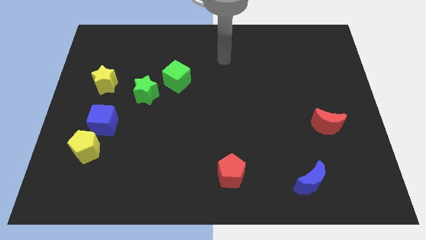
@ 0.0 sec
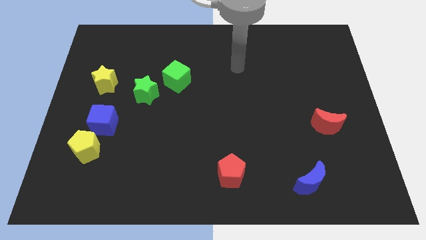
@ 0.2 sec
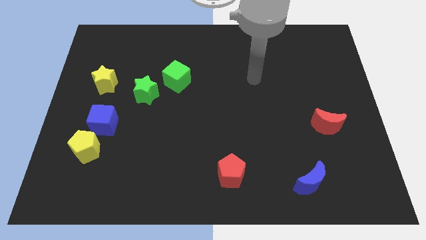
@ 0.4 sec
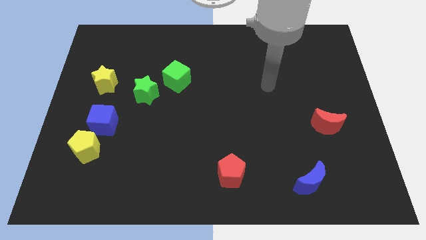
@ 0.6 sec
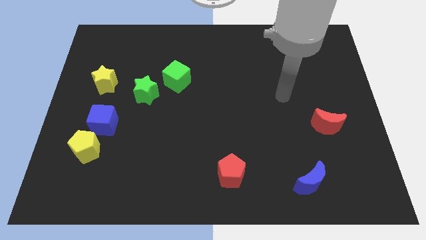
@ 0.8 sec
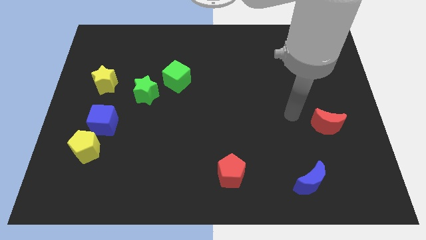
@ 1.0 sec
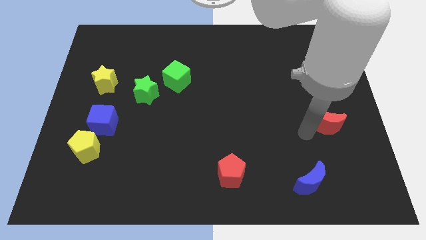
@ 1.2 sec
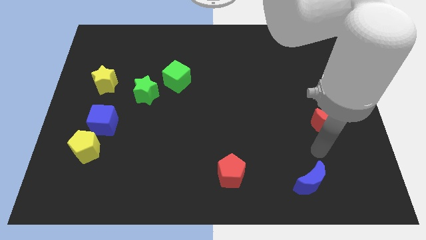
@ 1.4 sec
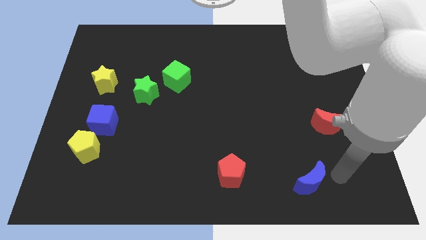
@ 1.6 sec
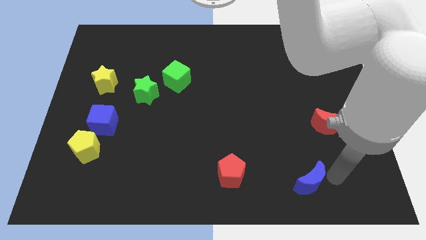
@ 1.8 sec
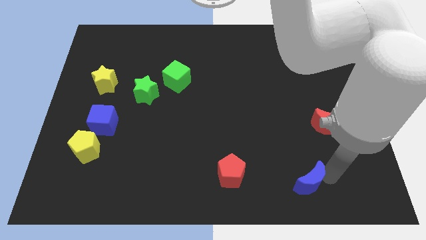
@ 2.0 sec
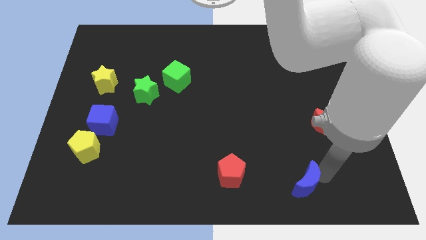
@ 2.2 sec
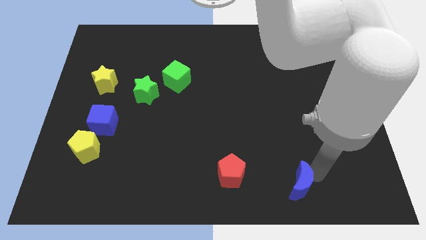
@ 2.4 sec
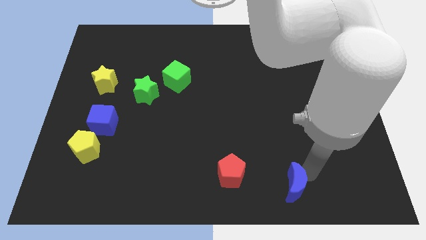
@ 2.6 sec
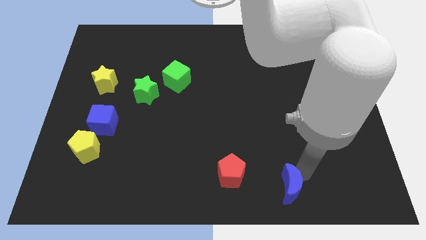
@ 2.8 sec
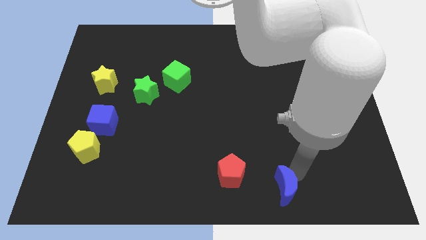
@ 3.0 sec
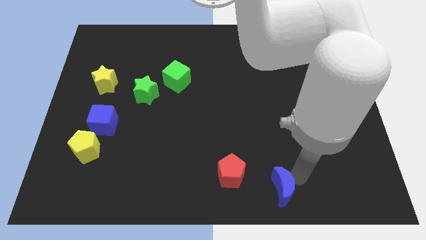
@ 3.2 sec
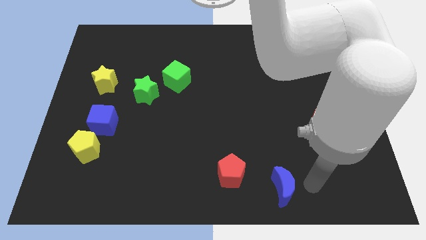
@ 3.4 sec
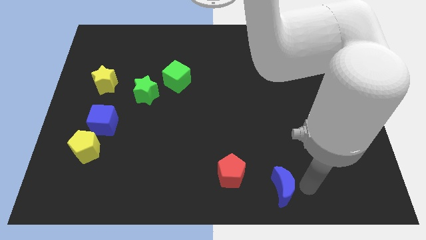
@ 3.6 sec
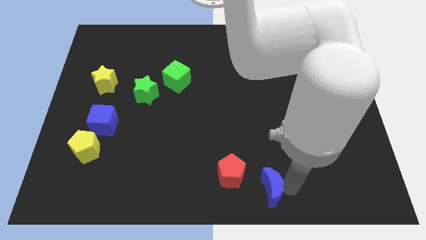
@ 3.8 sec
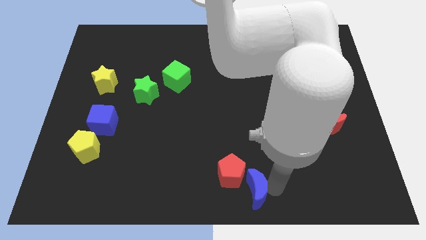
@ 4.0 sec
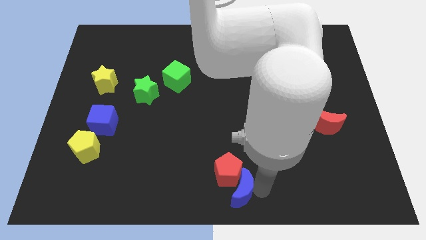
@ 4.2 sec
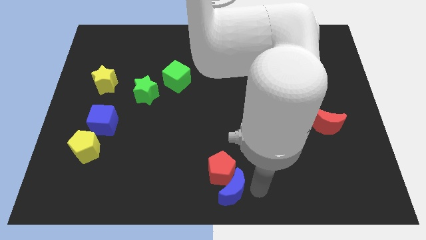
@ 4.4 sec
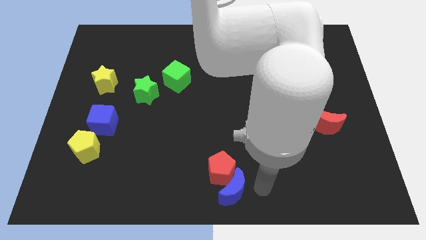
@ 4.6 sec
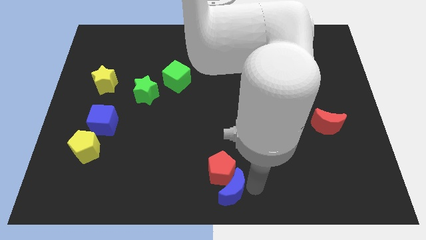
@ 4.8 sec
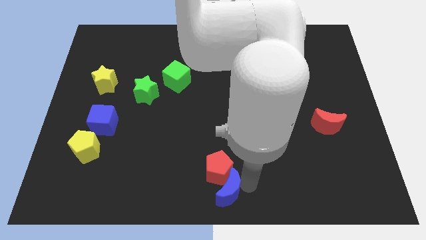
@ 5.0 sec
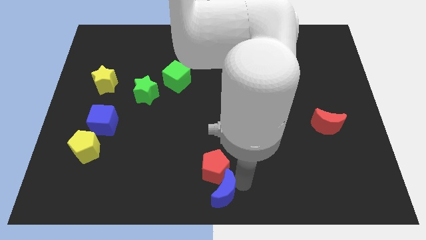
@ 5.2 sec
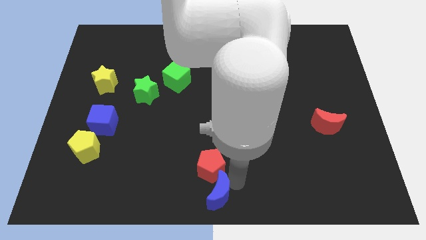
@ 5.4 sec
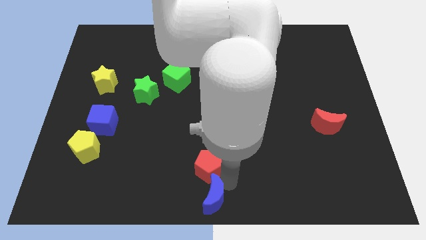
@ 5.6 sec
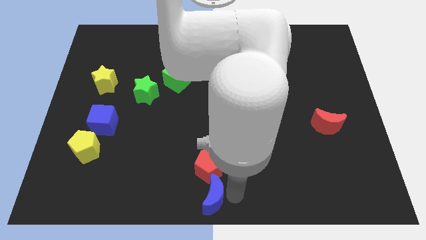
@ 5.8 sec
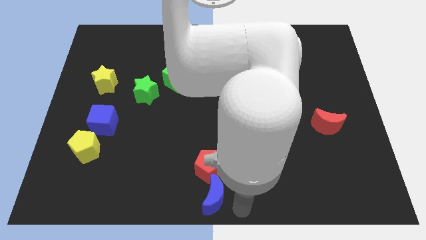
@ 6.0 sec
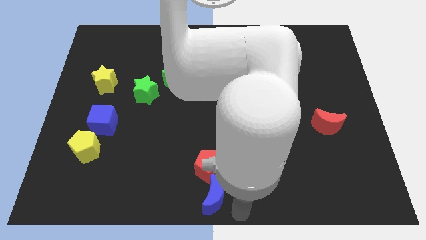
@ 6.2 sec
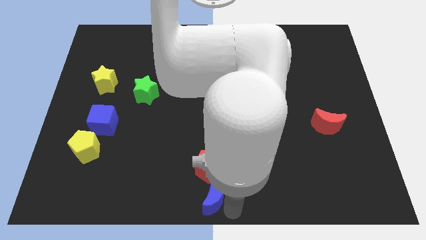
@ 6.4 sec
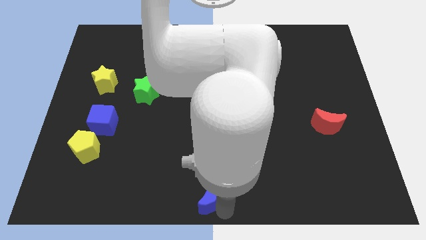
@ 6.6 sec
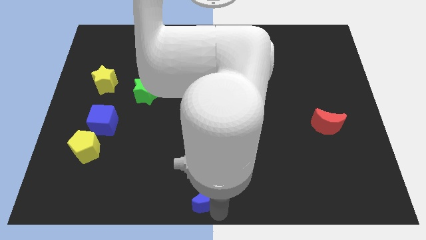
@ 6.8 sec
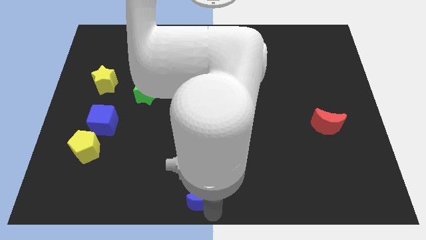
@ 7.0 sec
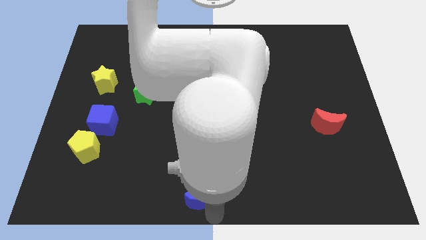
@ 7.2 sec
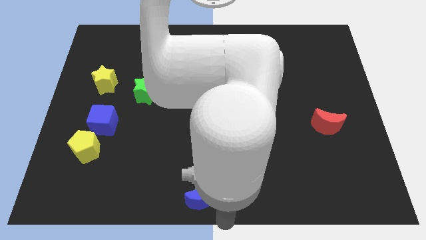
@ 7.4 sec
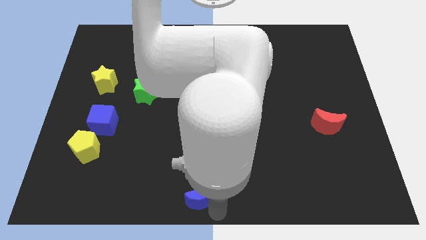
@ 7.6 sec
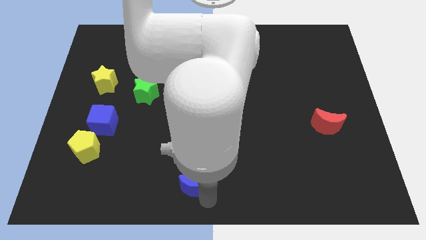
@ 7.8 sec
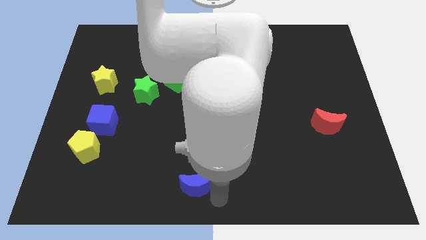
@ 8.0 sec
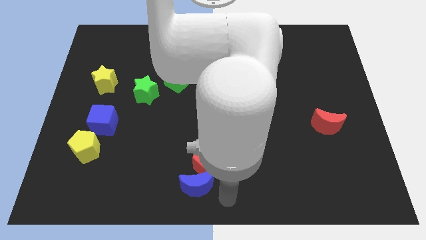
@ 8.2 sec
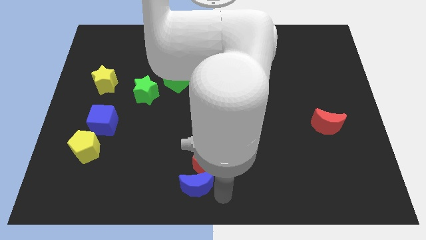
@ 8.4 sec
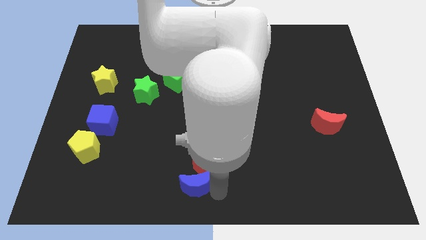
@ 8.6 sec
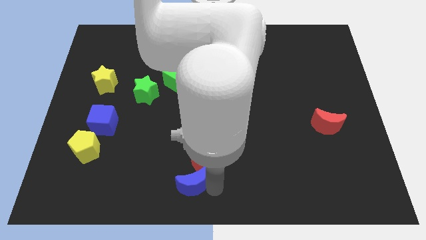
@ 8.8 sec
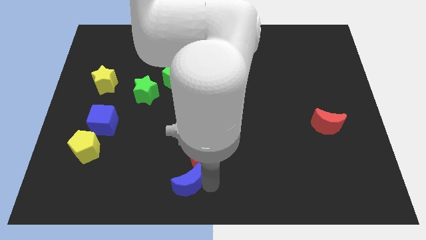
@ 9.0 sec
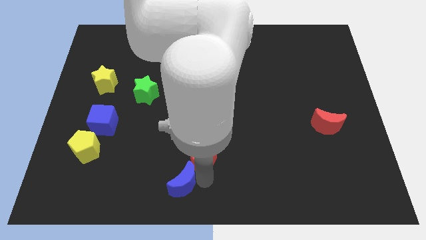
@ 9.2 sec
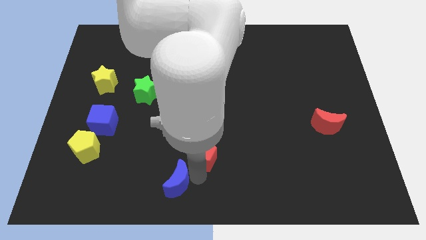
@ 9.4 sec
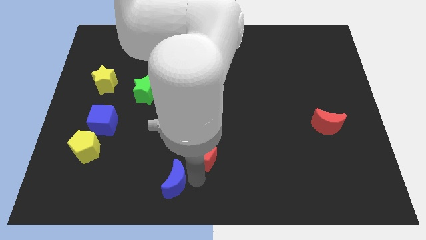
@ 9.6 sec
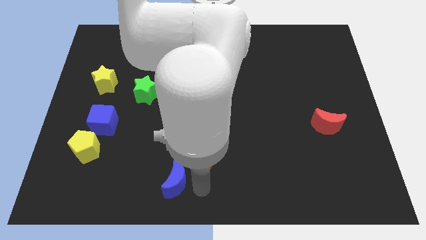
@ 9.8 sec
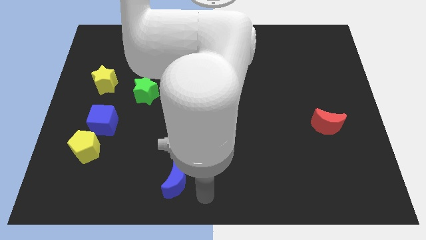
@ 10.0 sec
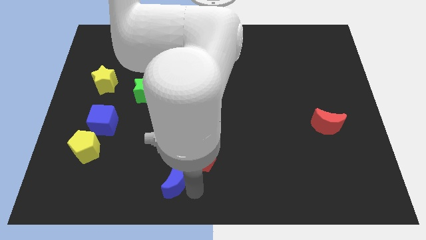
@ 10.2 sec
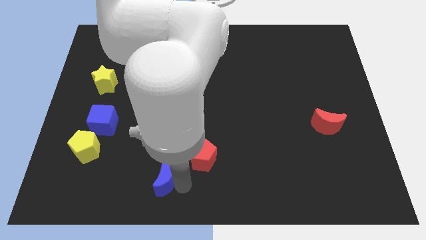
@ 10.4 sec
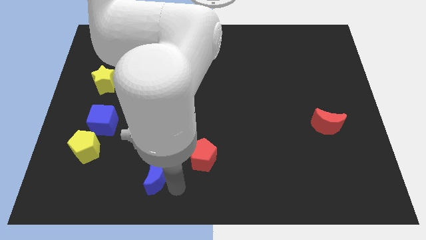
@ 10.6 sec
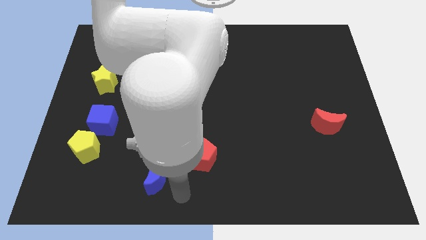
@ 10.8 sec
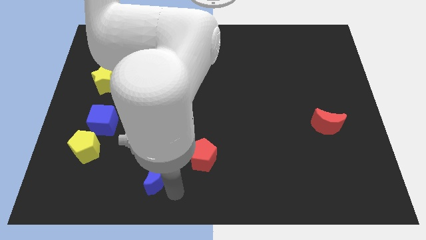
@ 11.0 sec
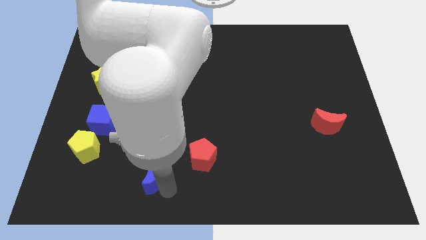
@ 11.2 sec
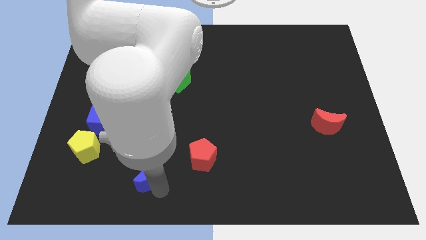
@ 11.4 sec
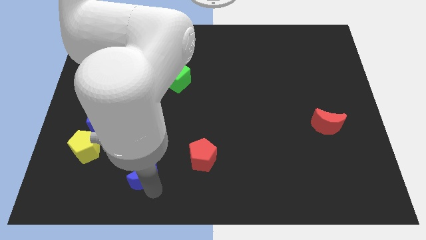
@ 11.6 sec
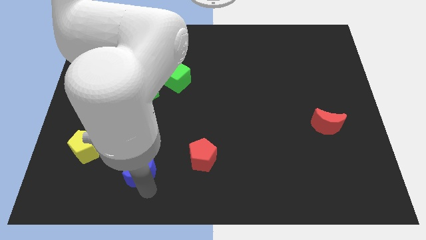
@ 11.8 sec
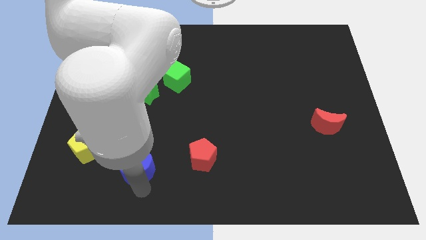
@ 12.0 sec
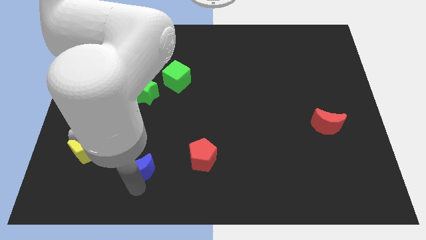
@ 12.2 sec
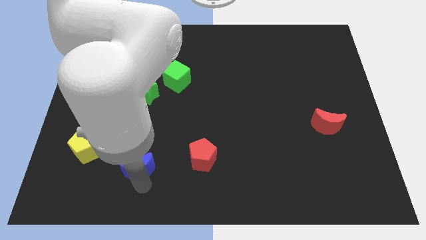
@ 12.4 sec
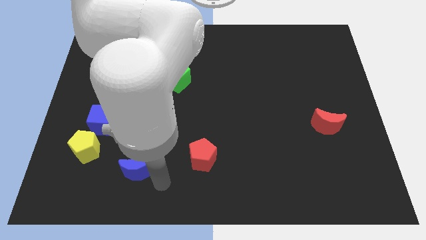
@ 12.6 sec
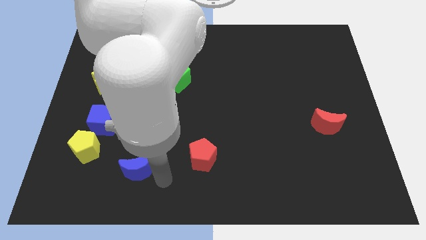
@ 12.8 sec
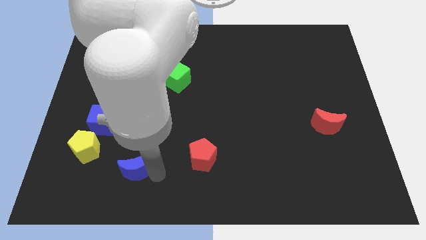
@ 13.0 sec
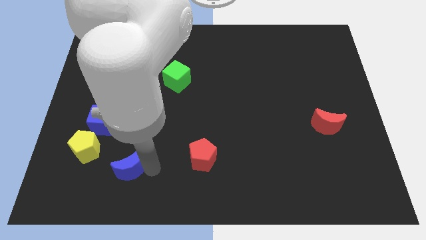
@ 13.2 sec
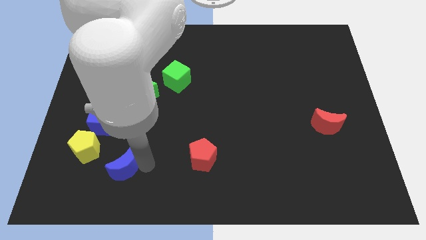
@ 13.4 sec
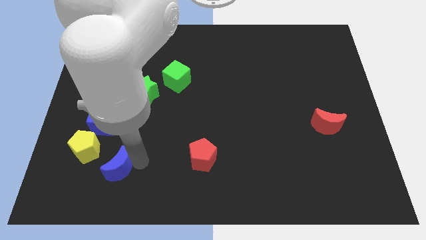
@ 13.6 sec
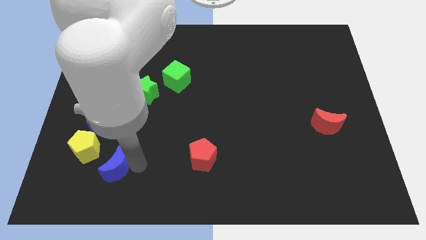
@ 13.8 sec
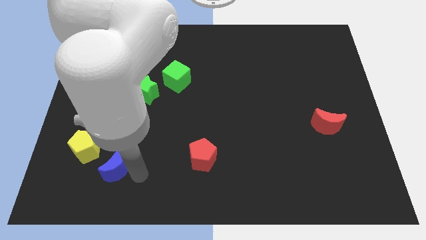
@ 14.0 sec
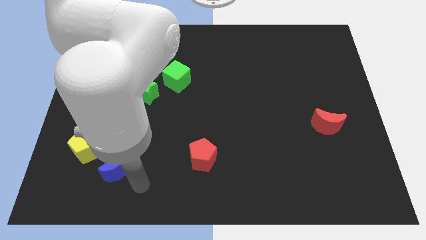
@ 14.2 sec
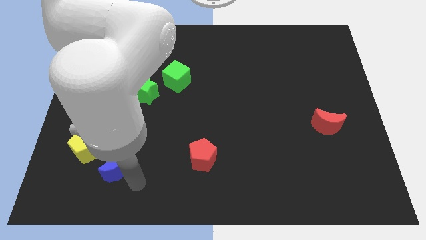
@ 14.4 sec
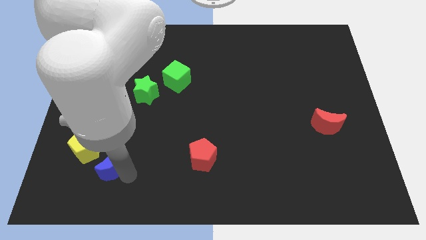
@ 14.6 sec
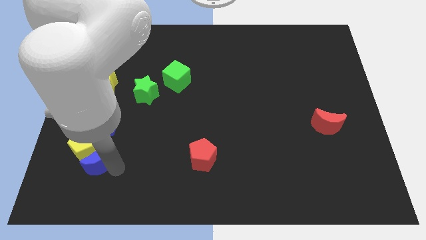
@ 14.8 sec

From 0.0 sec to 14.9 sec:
push the blue moon towards the yellow pentagon
